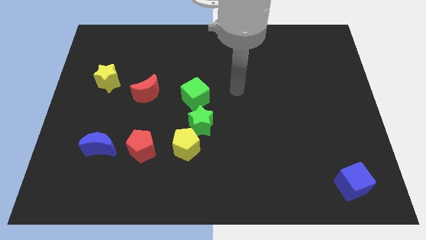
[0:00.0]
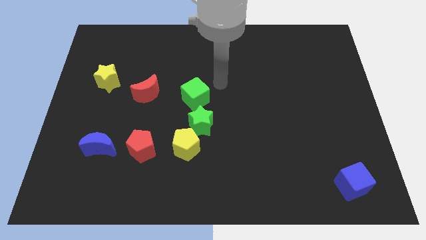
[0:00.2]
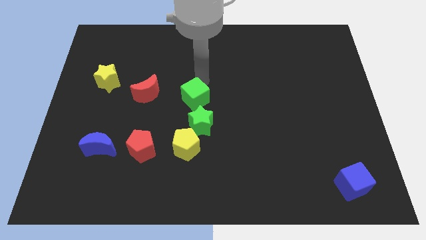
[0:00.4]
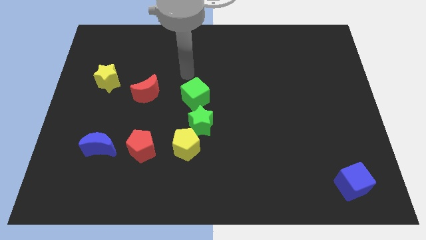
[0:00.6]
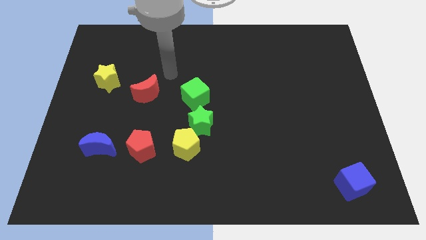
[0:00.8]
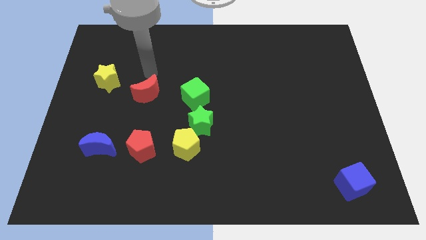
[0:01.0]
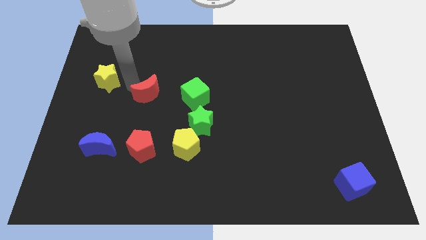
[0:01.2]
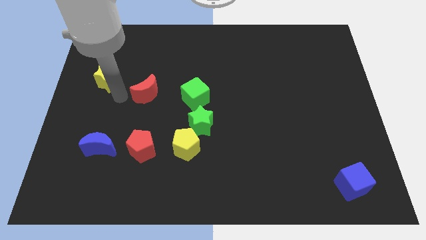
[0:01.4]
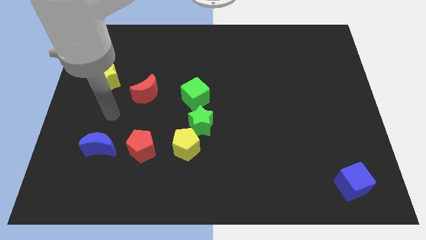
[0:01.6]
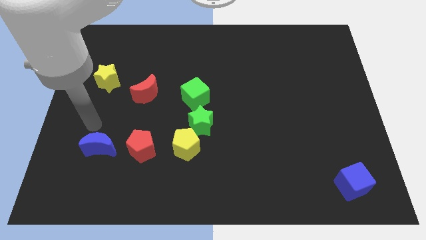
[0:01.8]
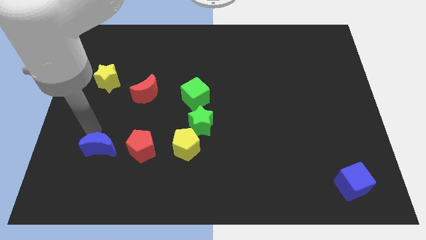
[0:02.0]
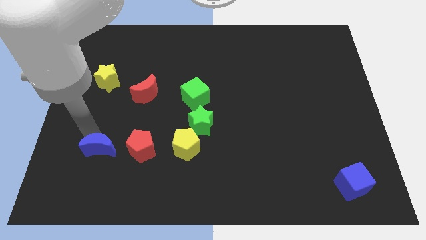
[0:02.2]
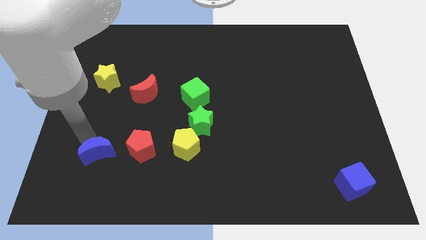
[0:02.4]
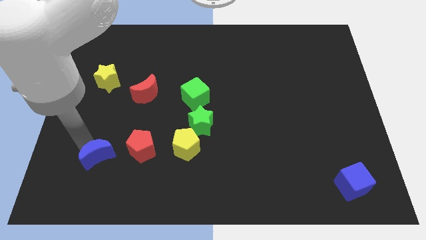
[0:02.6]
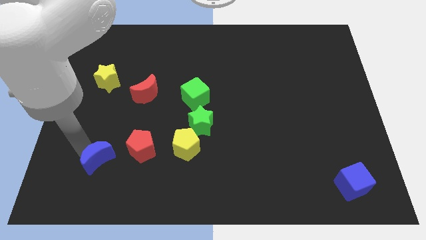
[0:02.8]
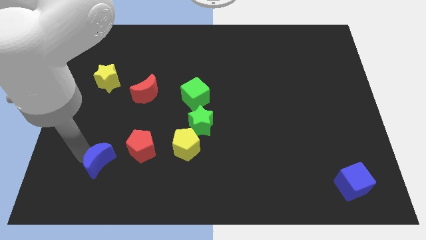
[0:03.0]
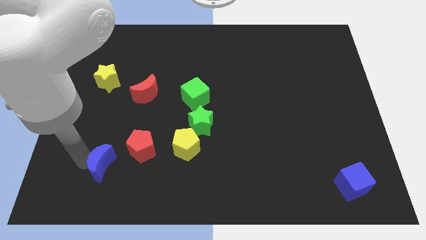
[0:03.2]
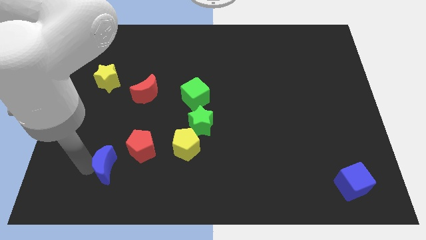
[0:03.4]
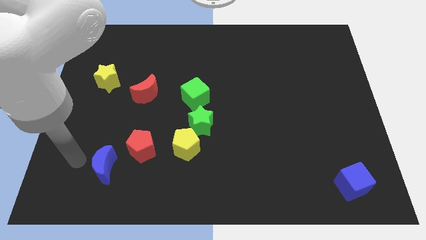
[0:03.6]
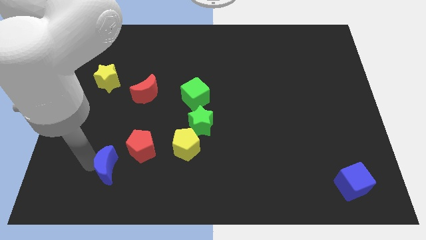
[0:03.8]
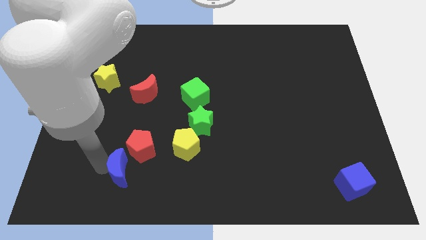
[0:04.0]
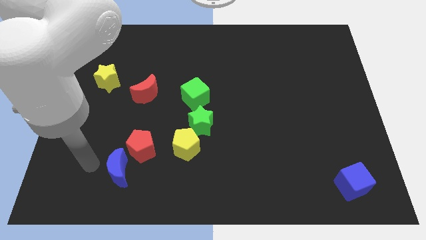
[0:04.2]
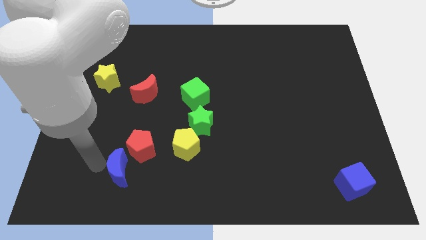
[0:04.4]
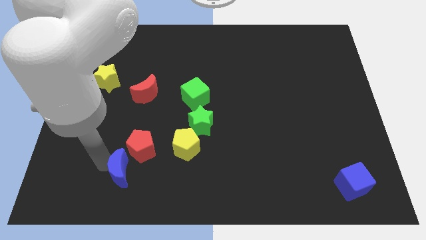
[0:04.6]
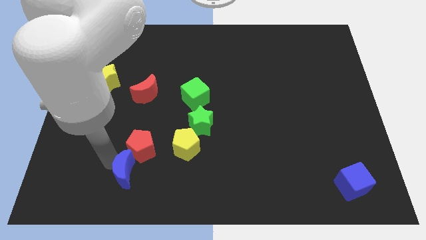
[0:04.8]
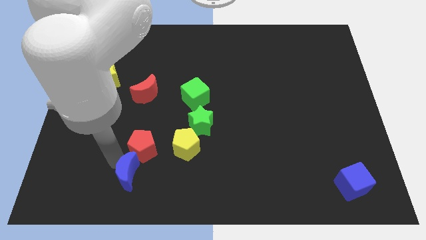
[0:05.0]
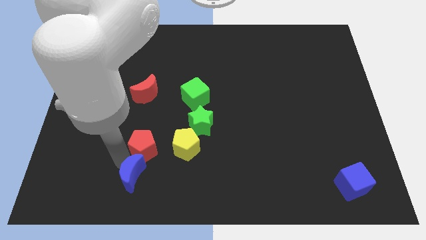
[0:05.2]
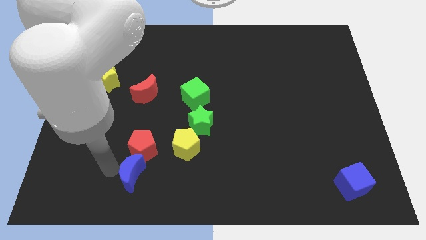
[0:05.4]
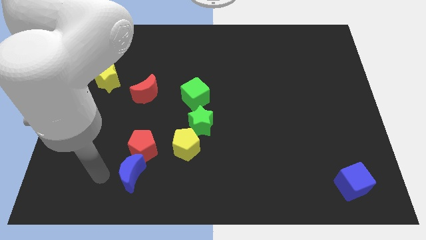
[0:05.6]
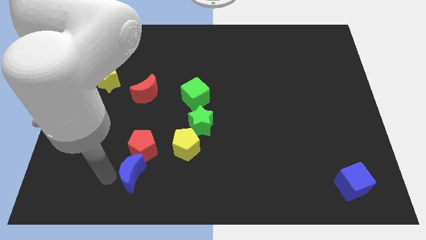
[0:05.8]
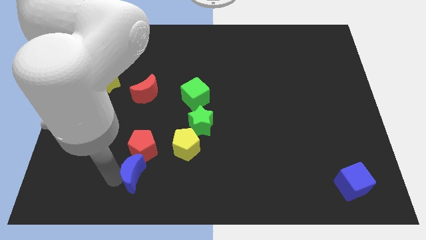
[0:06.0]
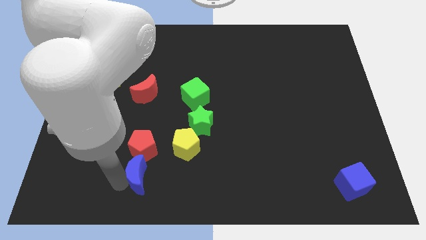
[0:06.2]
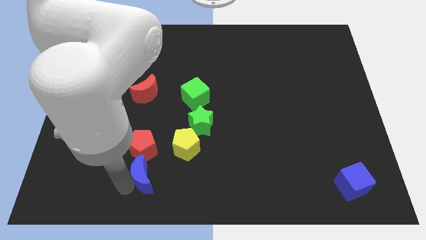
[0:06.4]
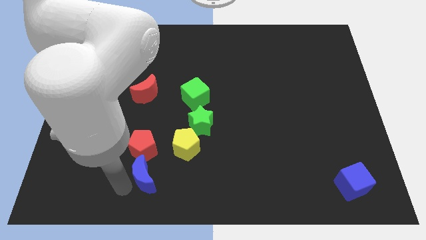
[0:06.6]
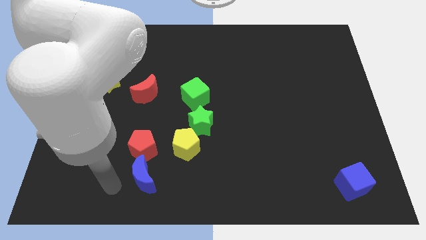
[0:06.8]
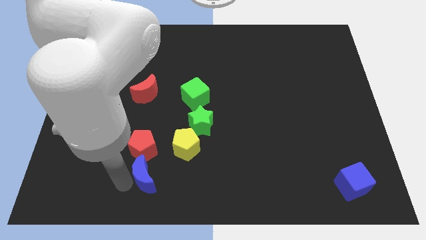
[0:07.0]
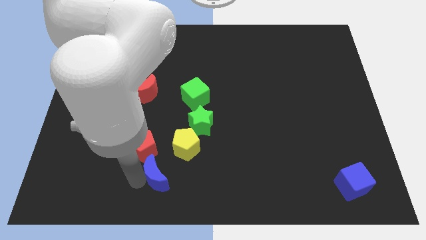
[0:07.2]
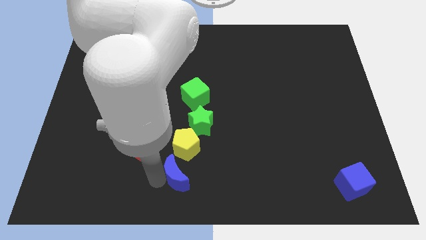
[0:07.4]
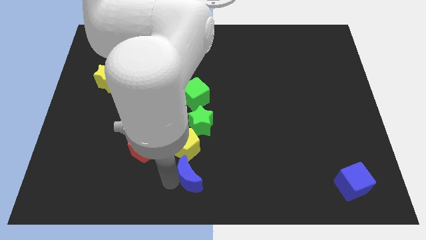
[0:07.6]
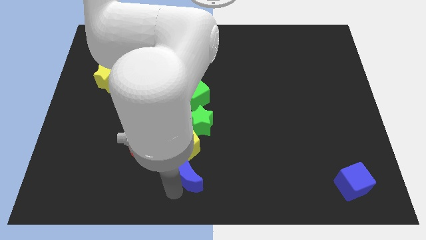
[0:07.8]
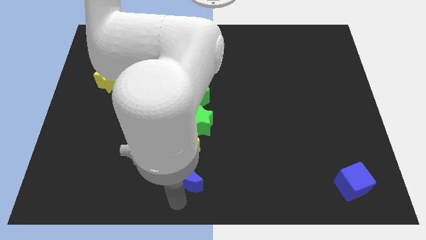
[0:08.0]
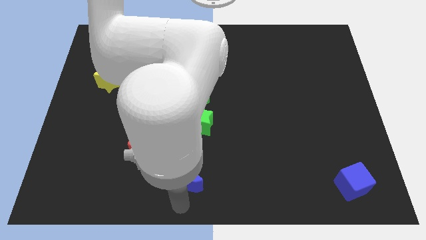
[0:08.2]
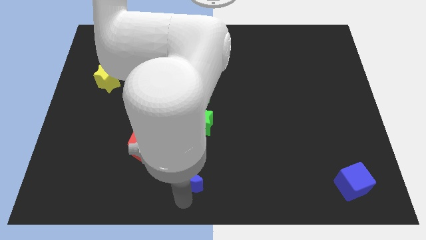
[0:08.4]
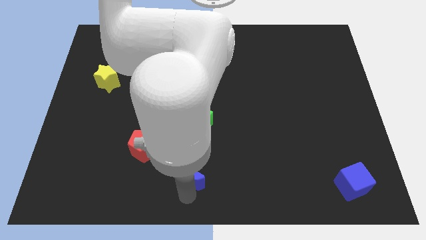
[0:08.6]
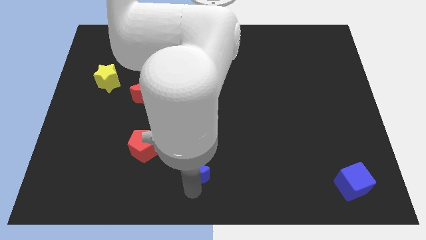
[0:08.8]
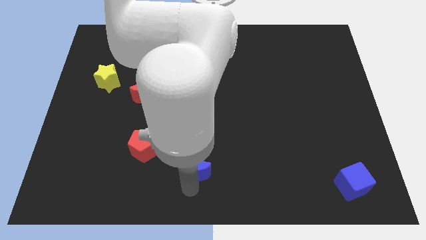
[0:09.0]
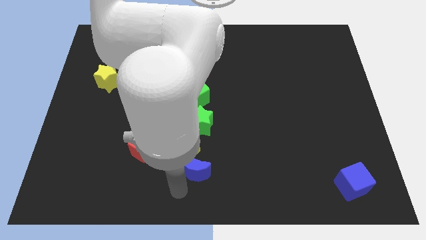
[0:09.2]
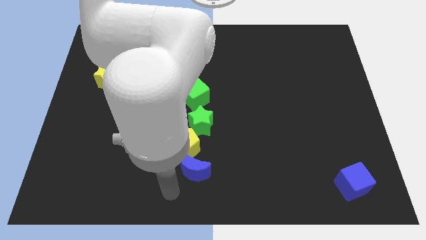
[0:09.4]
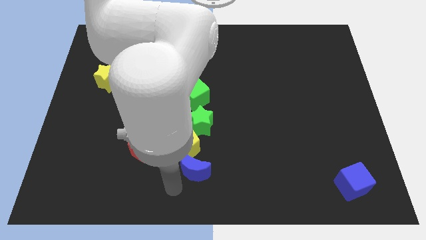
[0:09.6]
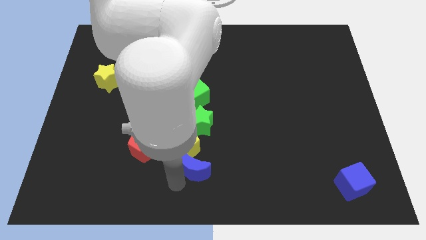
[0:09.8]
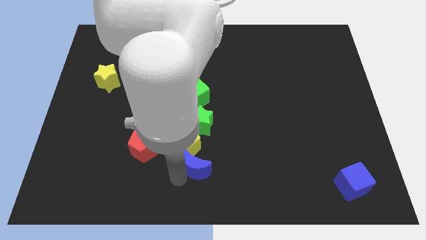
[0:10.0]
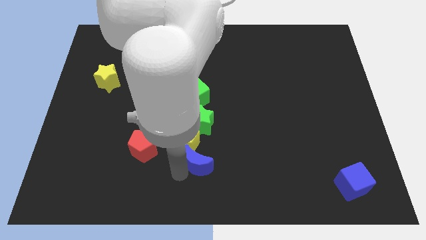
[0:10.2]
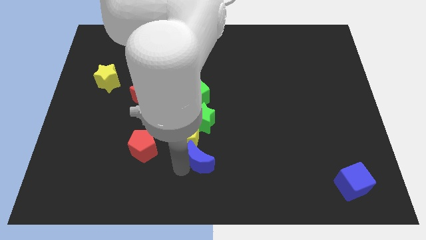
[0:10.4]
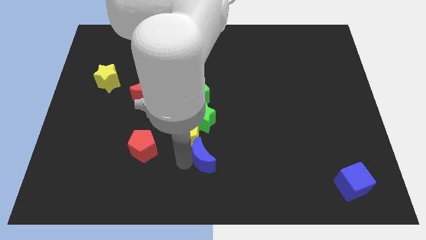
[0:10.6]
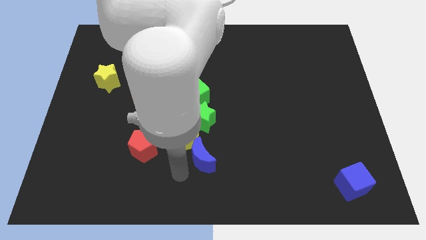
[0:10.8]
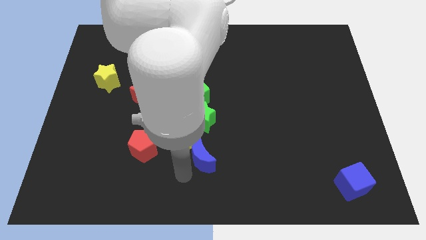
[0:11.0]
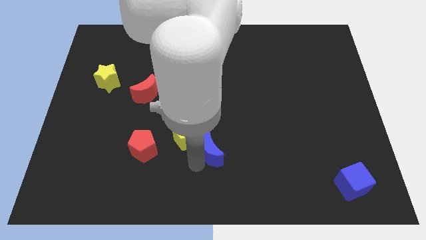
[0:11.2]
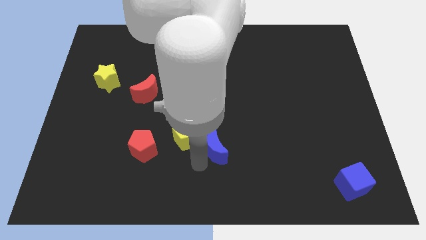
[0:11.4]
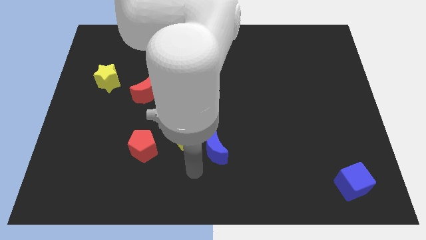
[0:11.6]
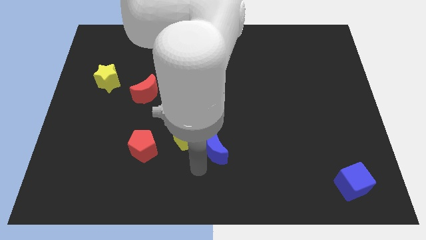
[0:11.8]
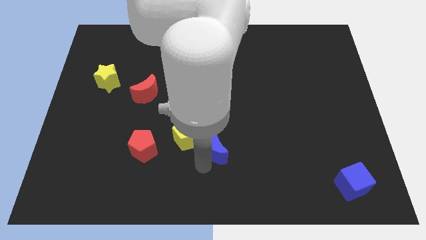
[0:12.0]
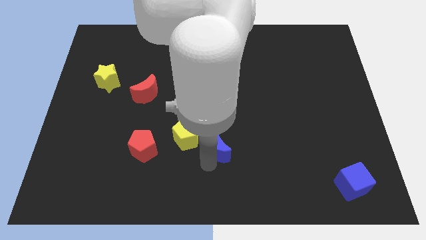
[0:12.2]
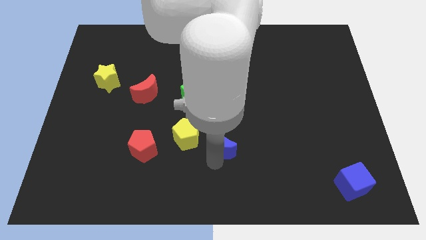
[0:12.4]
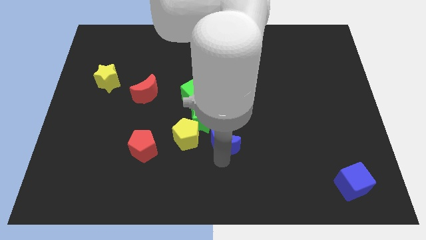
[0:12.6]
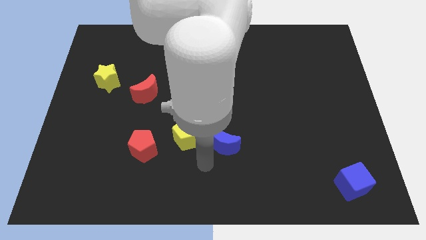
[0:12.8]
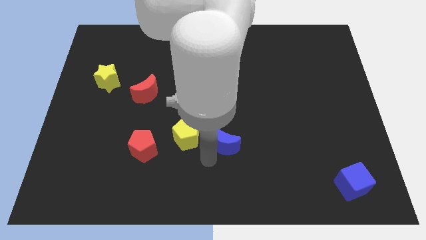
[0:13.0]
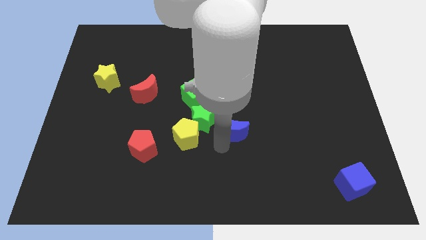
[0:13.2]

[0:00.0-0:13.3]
put the blue moon to the right of the green star

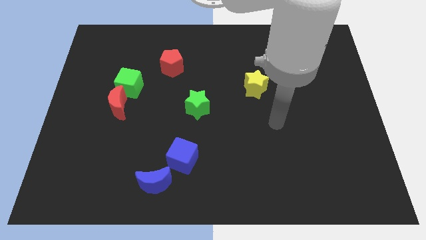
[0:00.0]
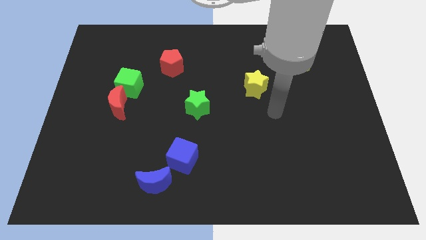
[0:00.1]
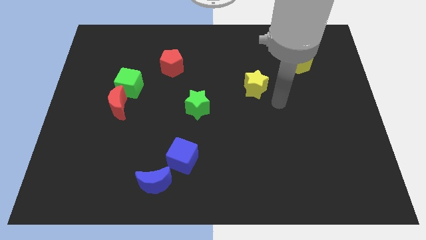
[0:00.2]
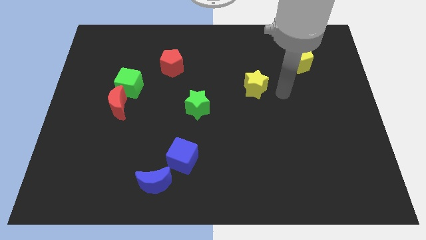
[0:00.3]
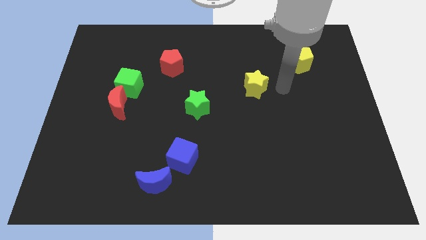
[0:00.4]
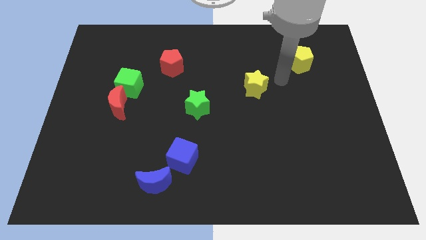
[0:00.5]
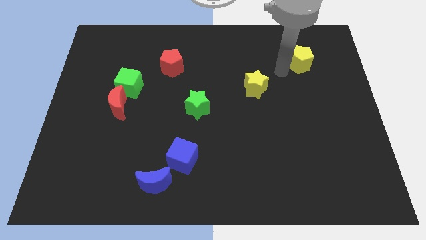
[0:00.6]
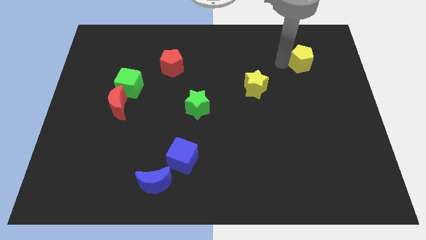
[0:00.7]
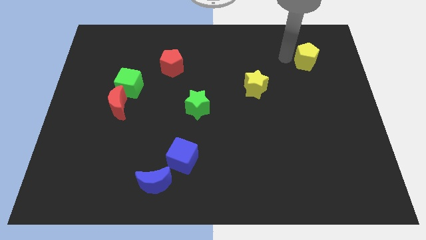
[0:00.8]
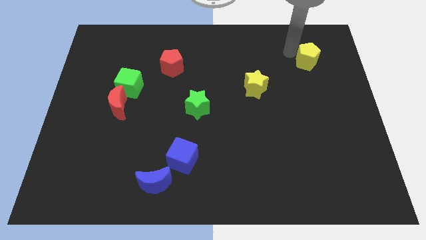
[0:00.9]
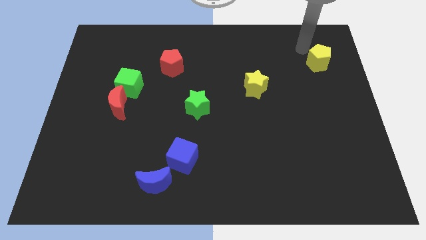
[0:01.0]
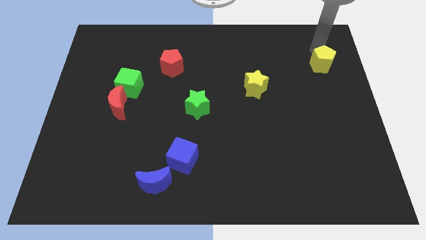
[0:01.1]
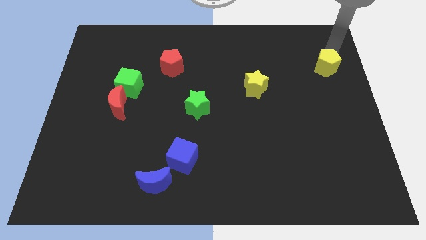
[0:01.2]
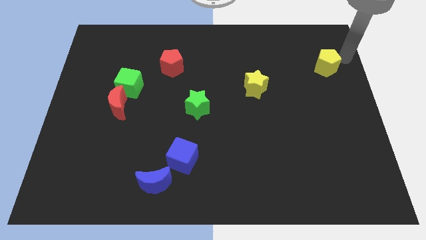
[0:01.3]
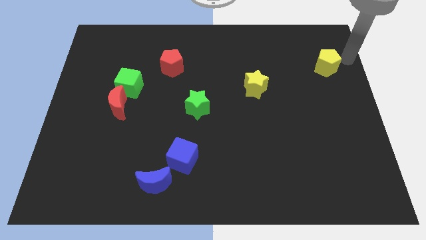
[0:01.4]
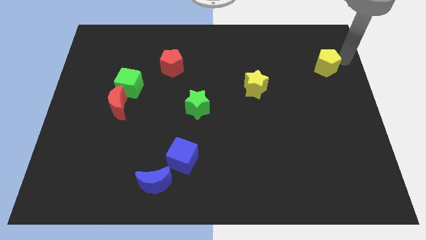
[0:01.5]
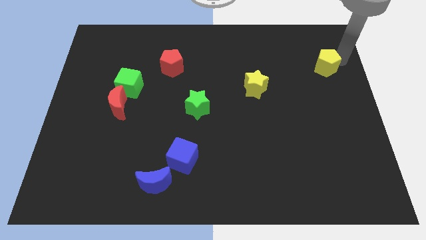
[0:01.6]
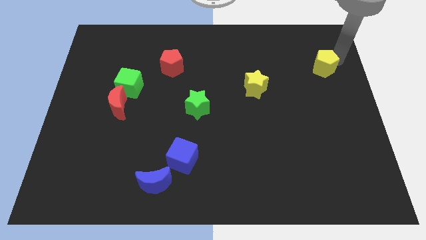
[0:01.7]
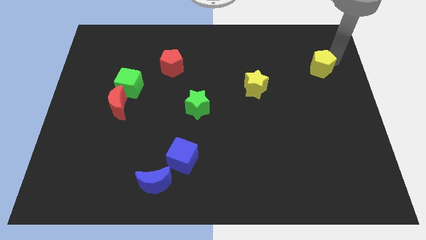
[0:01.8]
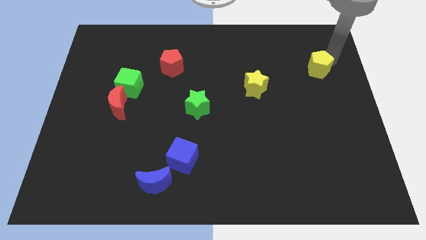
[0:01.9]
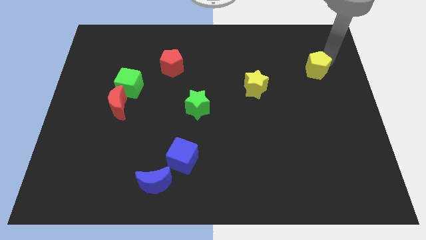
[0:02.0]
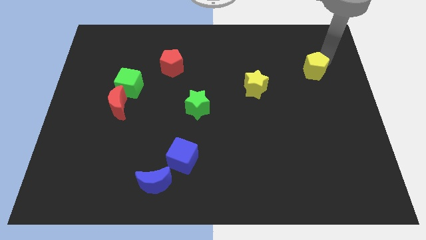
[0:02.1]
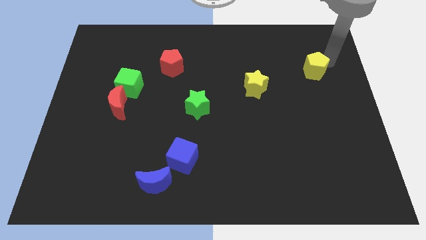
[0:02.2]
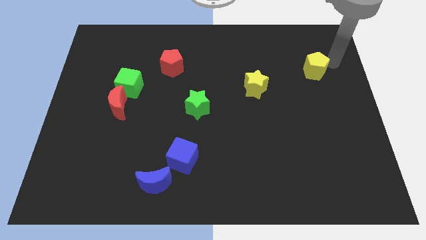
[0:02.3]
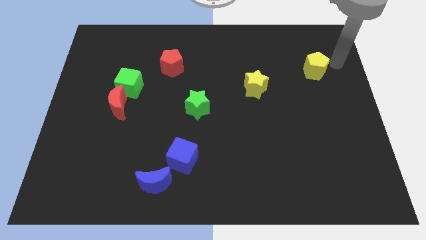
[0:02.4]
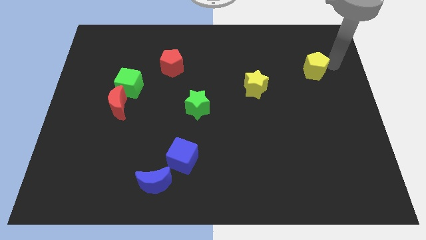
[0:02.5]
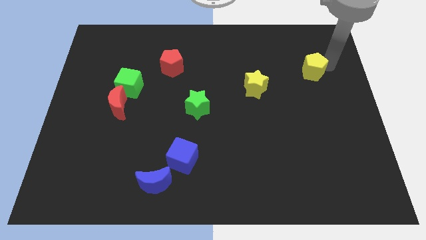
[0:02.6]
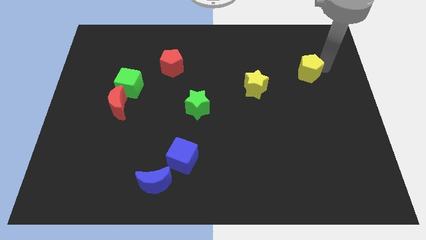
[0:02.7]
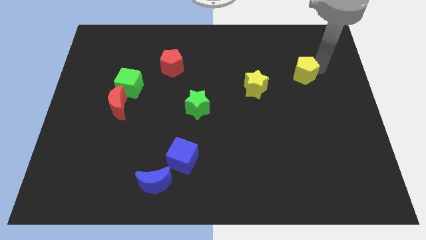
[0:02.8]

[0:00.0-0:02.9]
push the yellow pentagon just right of the yellow star
